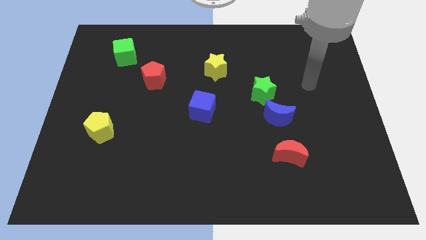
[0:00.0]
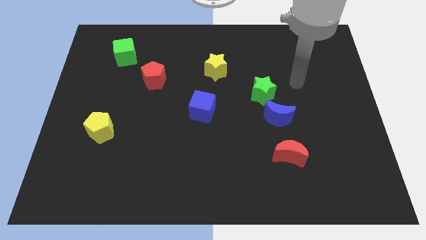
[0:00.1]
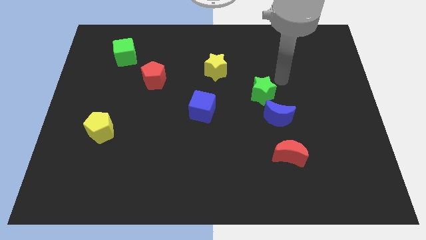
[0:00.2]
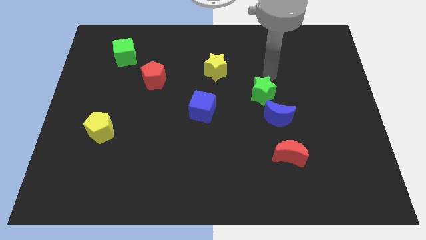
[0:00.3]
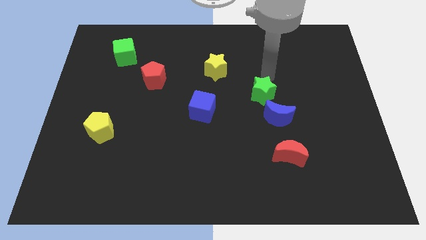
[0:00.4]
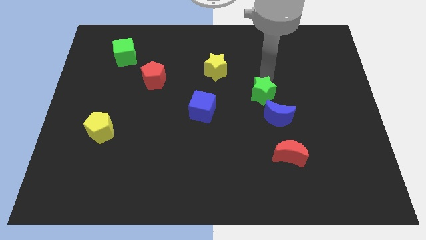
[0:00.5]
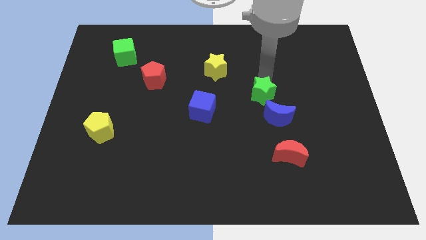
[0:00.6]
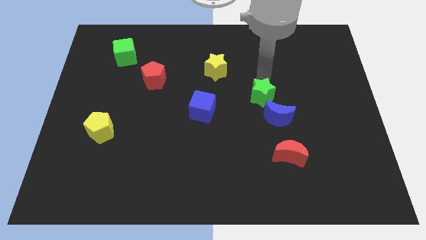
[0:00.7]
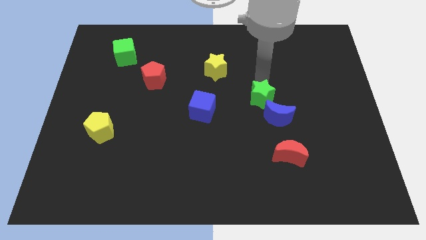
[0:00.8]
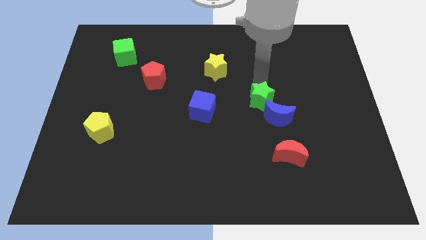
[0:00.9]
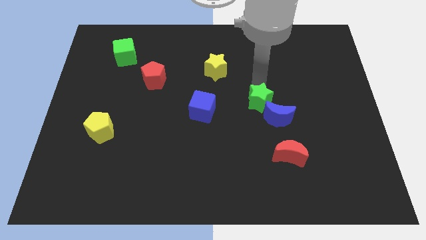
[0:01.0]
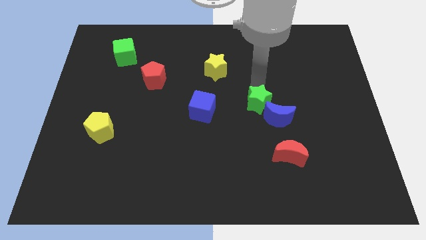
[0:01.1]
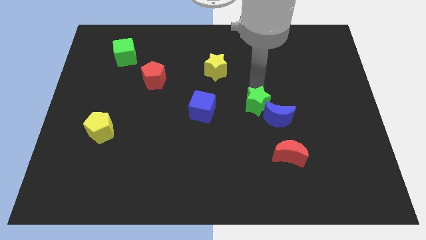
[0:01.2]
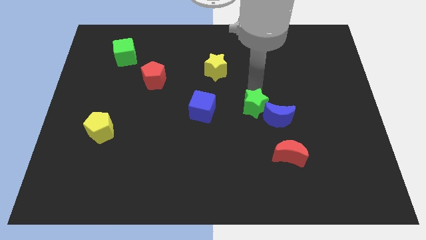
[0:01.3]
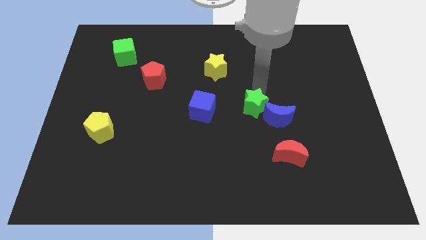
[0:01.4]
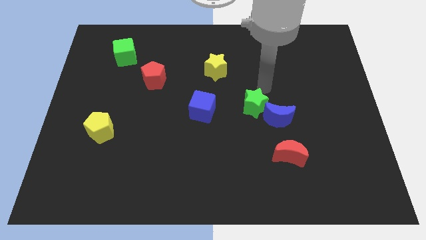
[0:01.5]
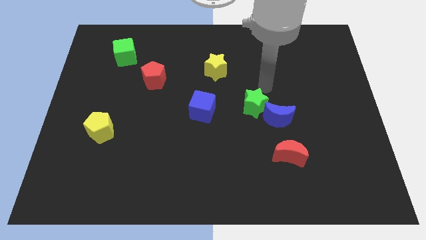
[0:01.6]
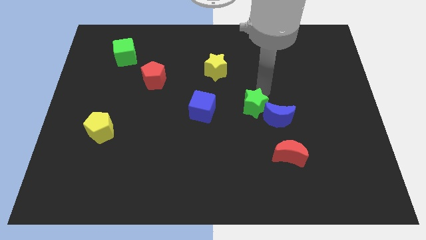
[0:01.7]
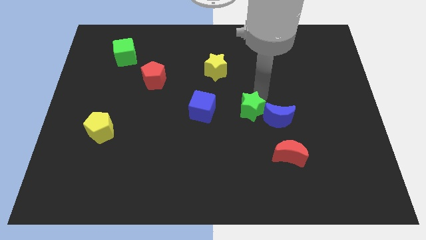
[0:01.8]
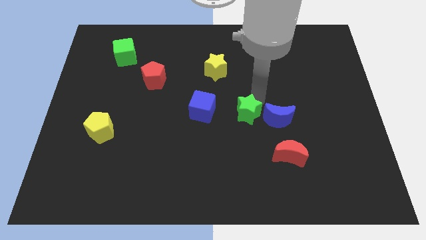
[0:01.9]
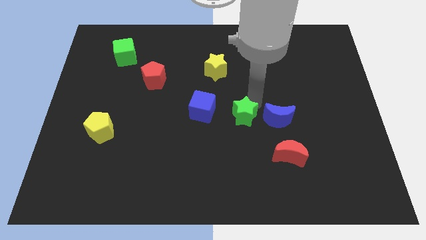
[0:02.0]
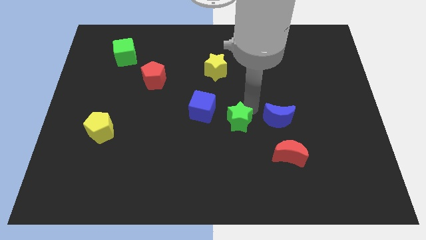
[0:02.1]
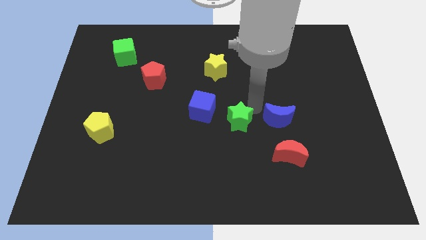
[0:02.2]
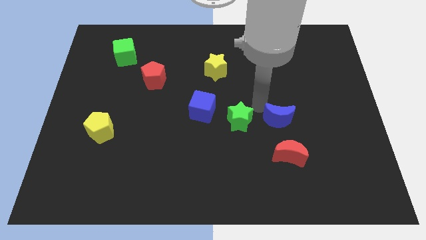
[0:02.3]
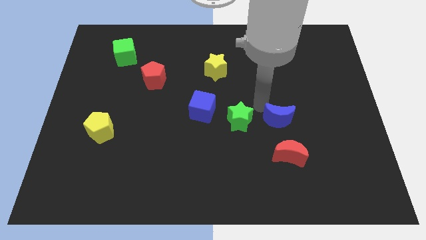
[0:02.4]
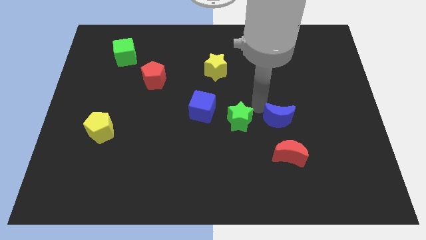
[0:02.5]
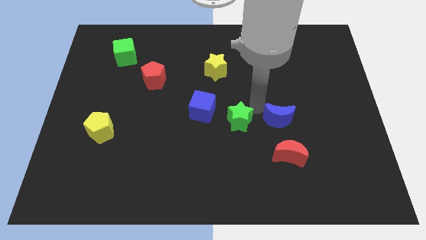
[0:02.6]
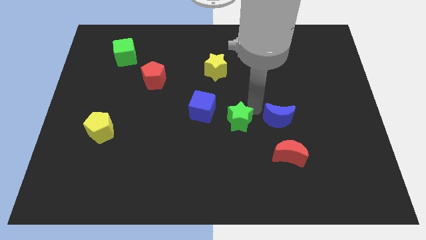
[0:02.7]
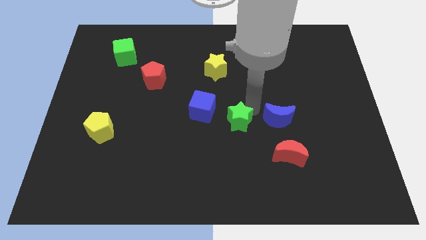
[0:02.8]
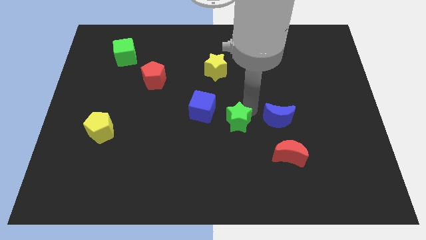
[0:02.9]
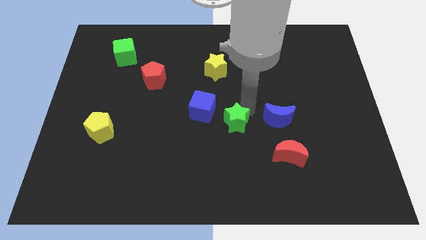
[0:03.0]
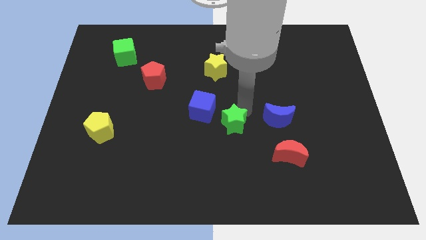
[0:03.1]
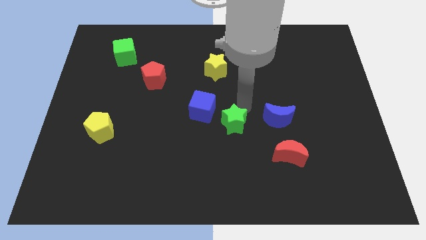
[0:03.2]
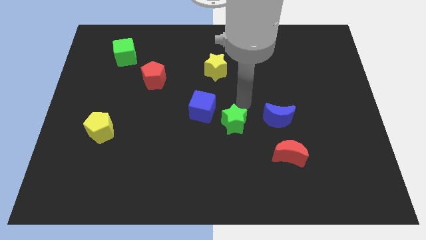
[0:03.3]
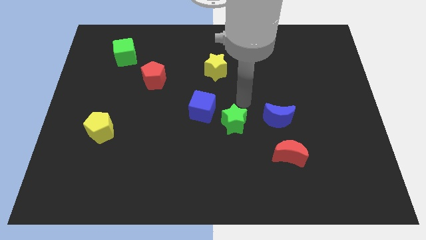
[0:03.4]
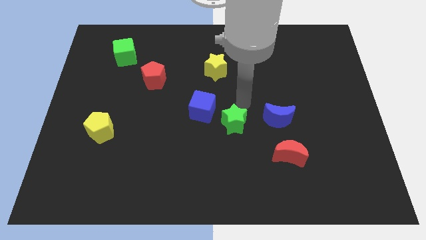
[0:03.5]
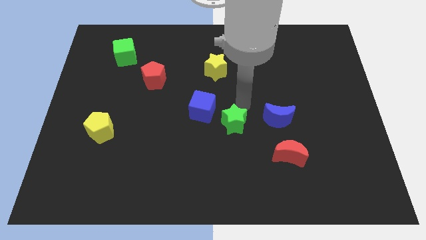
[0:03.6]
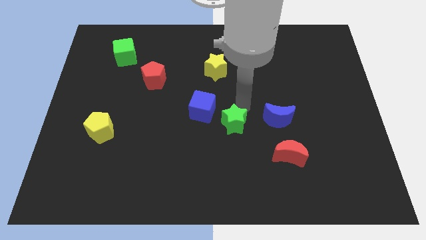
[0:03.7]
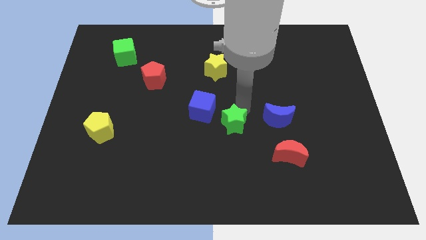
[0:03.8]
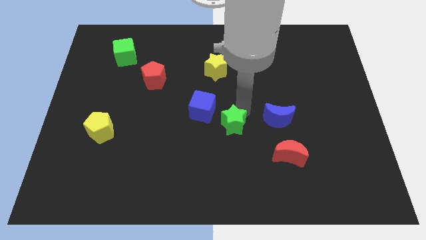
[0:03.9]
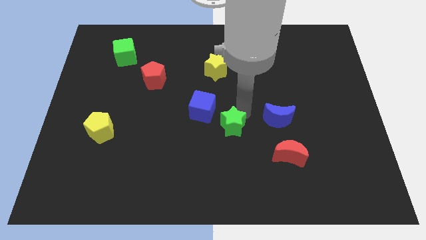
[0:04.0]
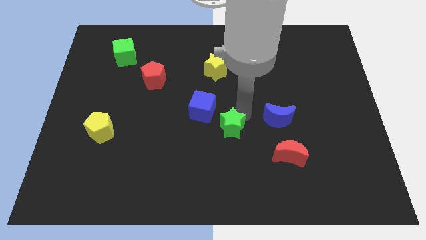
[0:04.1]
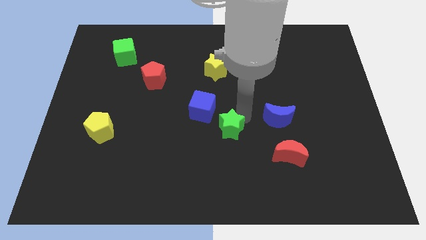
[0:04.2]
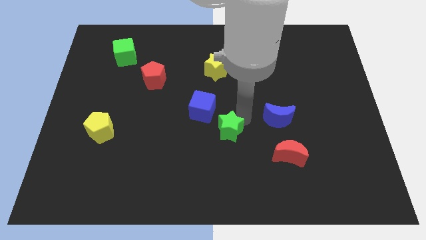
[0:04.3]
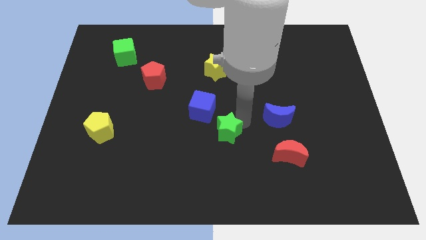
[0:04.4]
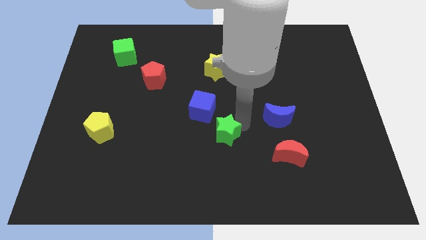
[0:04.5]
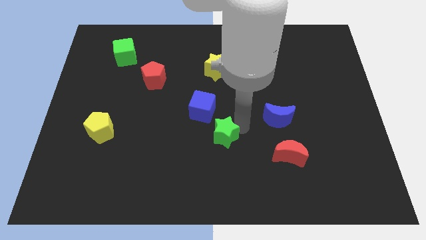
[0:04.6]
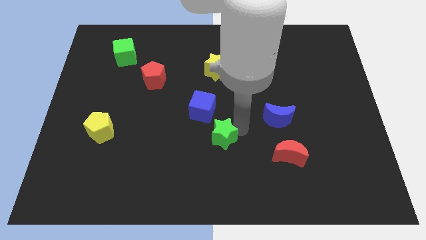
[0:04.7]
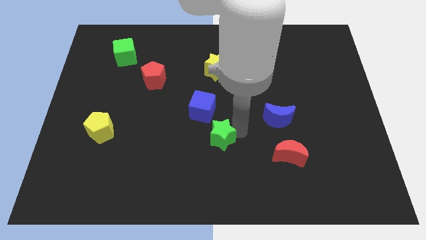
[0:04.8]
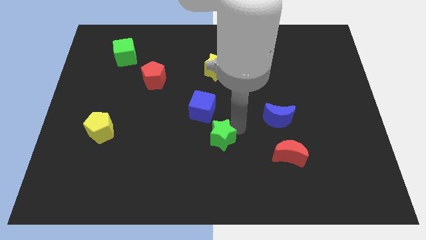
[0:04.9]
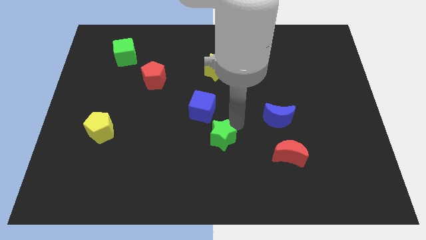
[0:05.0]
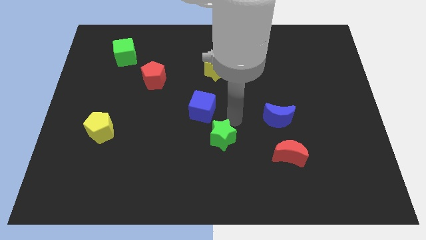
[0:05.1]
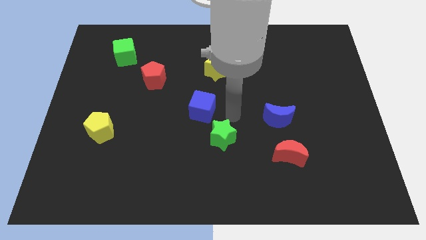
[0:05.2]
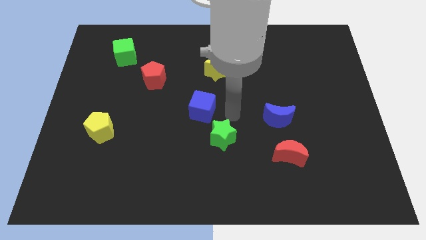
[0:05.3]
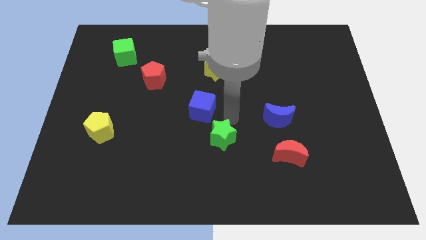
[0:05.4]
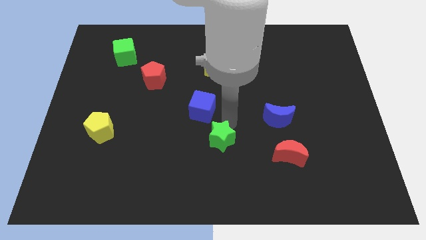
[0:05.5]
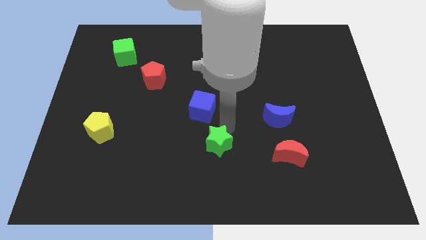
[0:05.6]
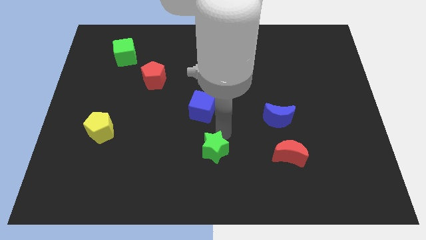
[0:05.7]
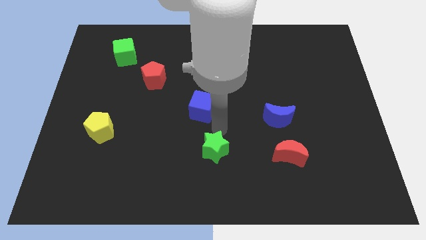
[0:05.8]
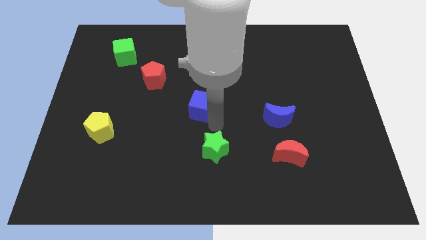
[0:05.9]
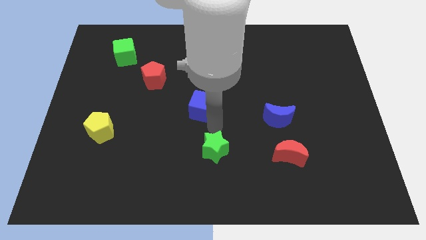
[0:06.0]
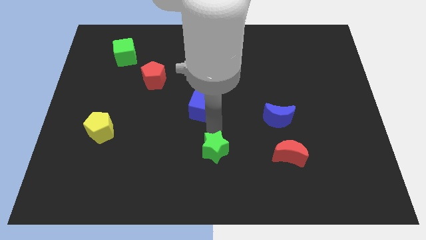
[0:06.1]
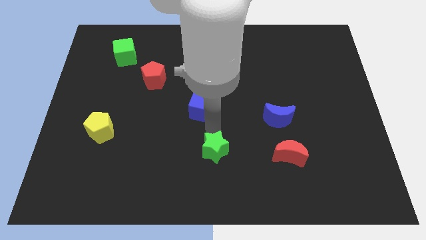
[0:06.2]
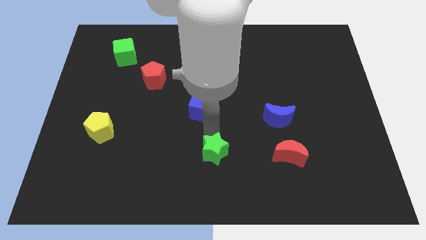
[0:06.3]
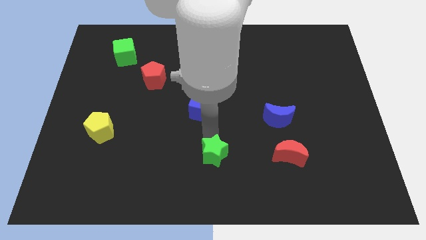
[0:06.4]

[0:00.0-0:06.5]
push the green star to the bottom side
